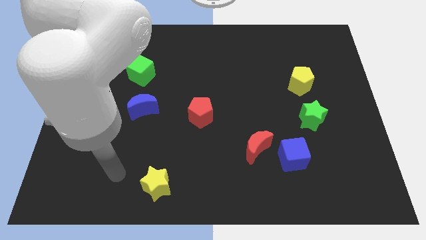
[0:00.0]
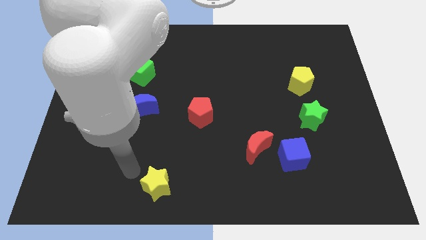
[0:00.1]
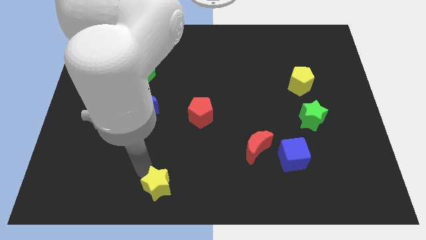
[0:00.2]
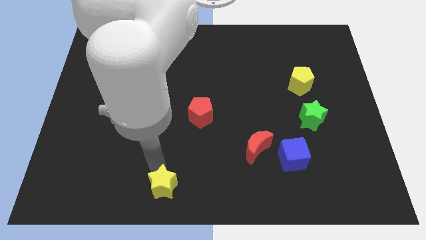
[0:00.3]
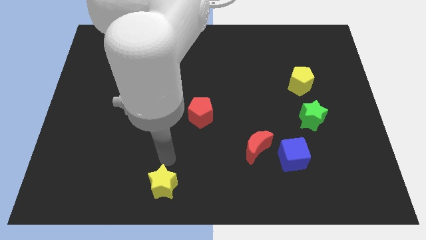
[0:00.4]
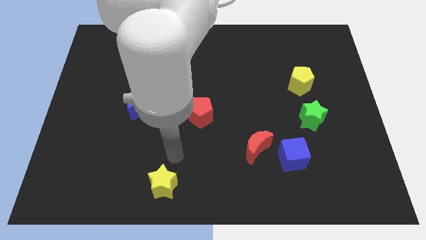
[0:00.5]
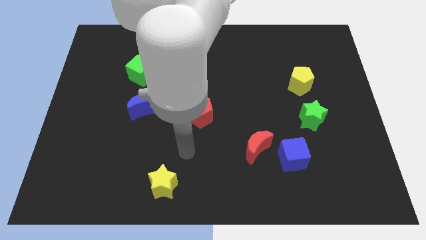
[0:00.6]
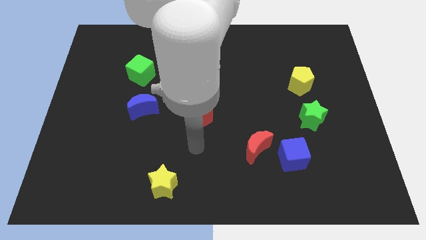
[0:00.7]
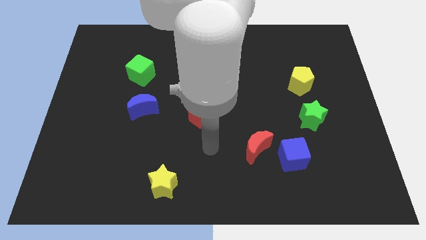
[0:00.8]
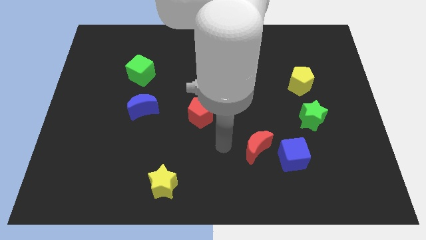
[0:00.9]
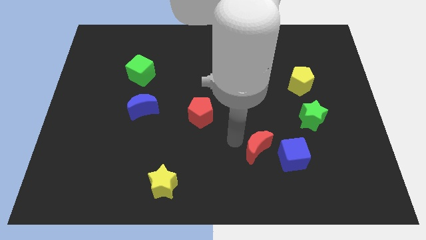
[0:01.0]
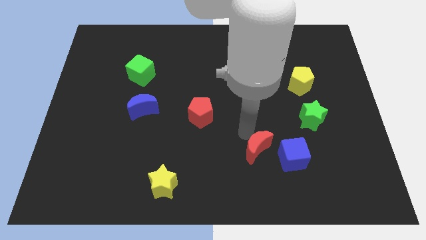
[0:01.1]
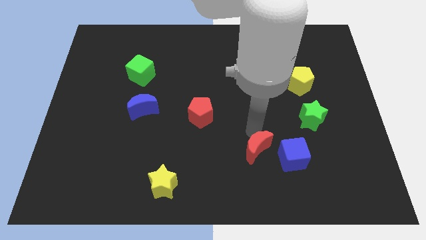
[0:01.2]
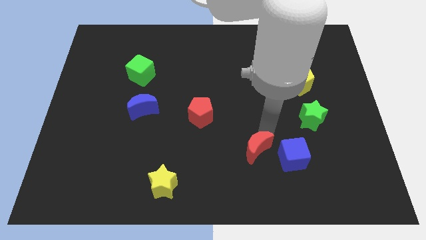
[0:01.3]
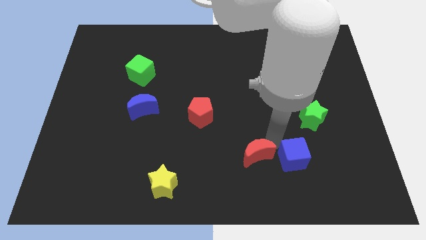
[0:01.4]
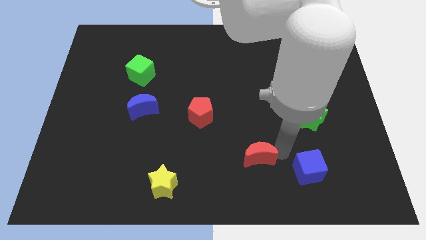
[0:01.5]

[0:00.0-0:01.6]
pull the red moon apart from the blue cube

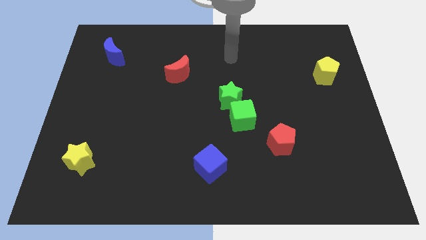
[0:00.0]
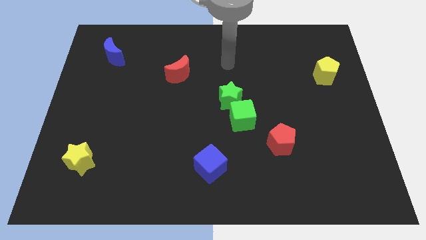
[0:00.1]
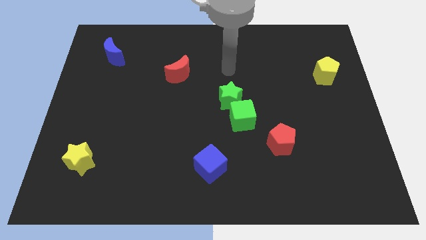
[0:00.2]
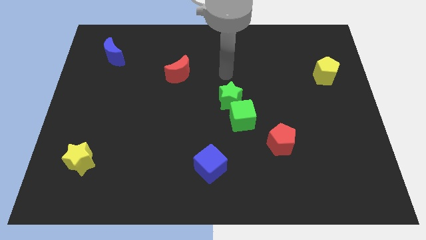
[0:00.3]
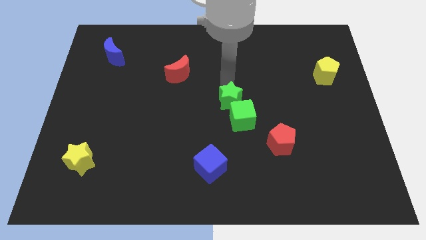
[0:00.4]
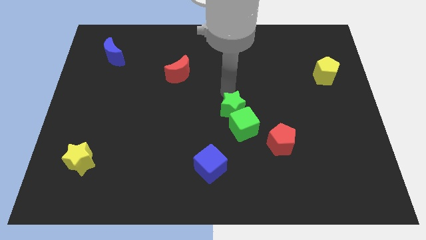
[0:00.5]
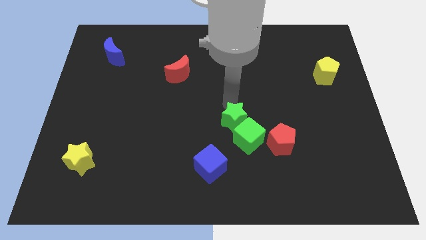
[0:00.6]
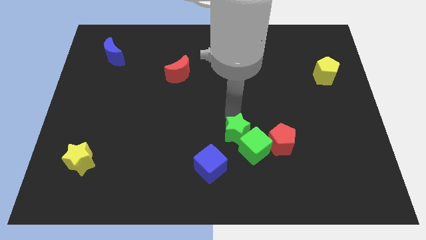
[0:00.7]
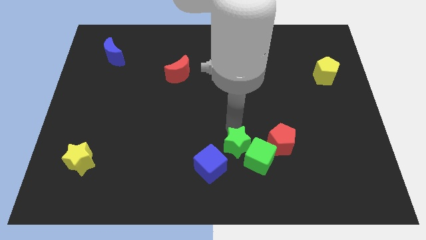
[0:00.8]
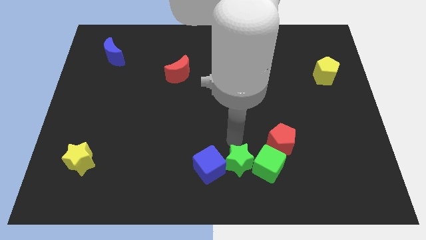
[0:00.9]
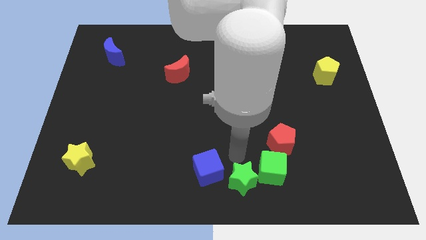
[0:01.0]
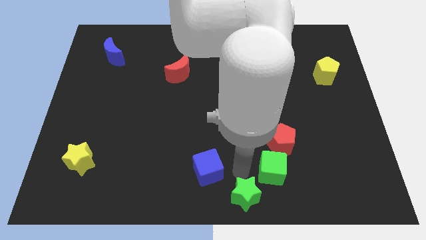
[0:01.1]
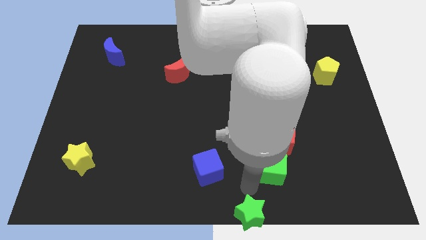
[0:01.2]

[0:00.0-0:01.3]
pull the green cube apart from the green star

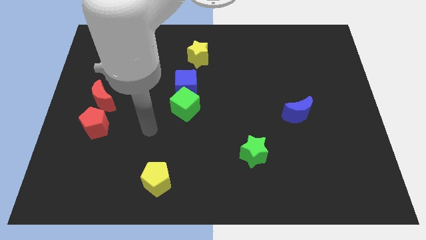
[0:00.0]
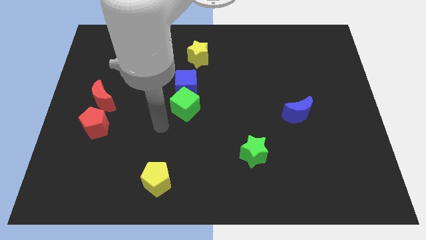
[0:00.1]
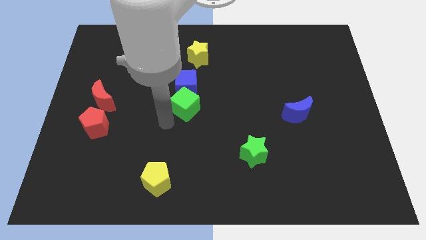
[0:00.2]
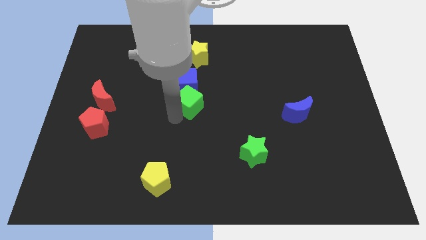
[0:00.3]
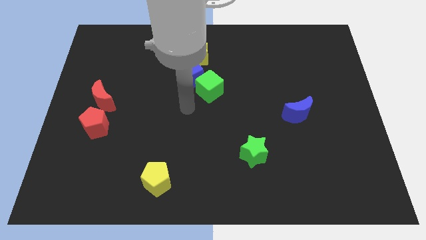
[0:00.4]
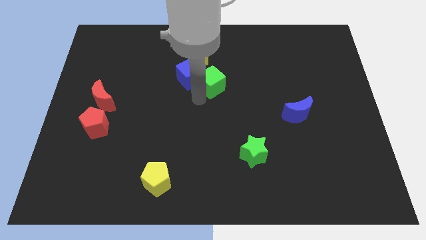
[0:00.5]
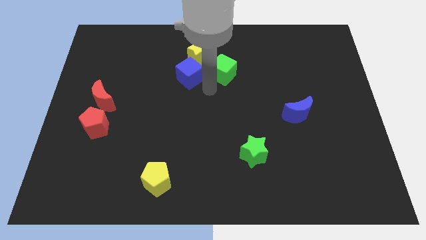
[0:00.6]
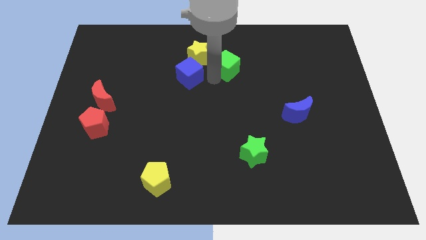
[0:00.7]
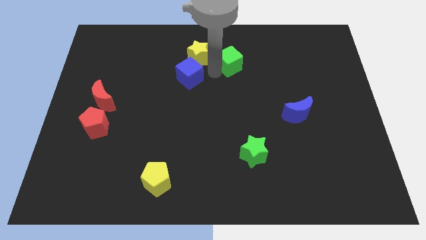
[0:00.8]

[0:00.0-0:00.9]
pull the blue cube apart from the green cube

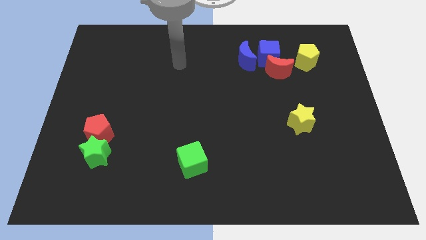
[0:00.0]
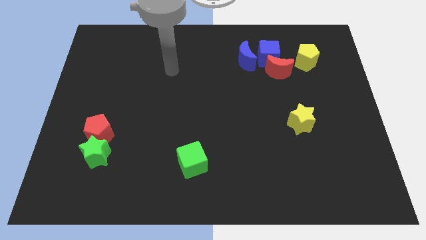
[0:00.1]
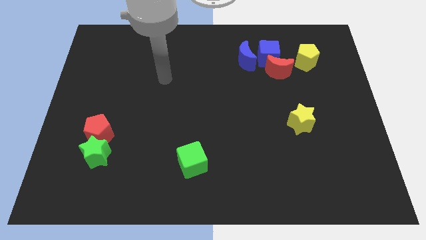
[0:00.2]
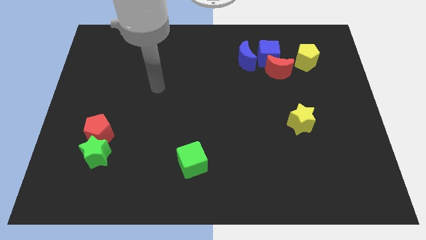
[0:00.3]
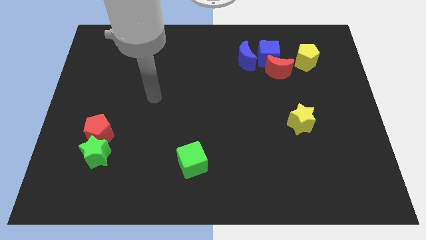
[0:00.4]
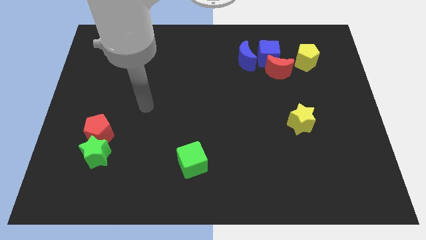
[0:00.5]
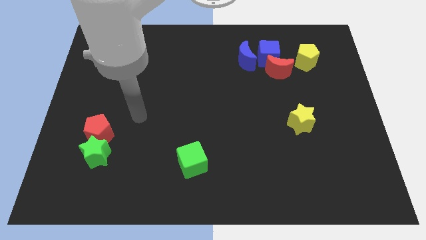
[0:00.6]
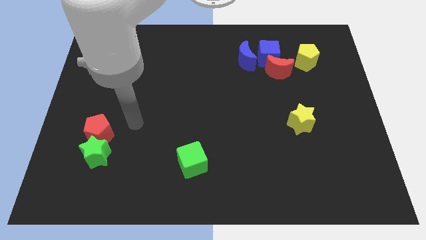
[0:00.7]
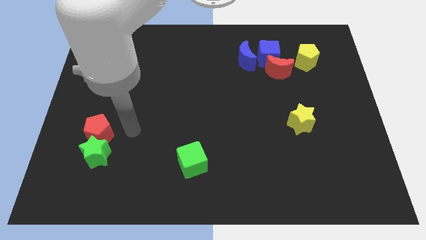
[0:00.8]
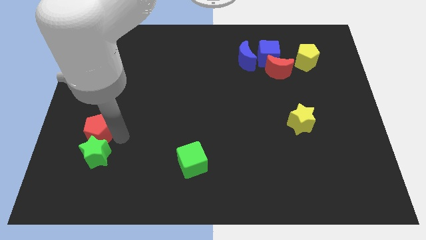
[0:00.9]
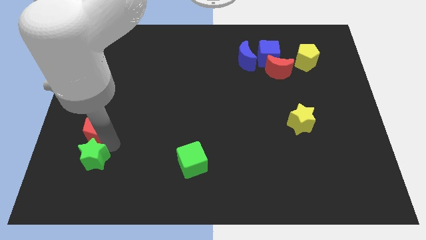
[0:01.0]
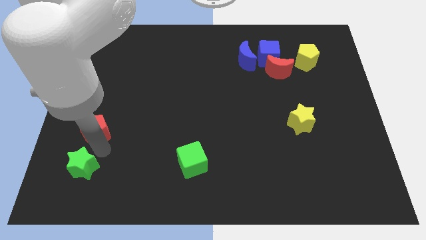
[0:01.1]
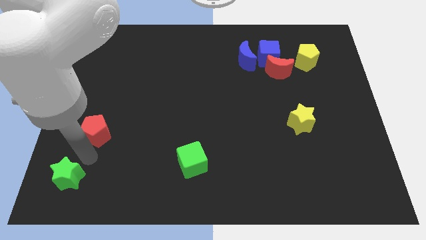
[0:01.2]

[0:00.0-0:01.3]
pull the red pentagon apart from the green star

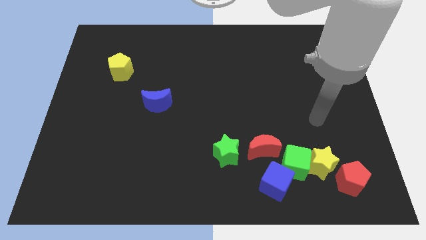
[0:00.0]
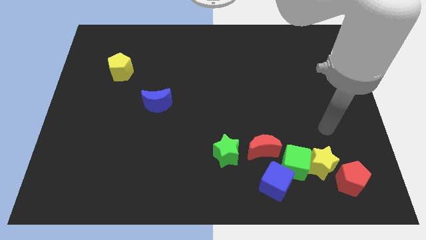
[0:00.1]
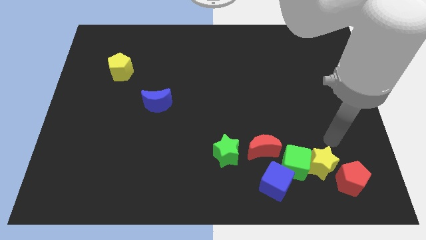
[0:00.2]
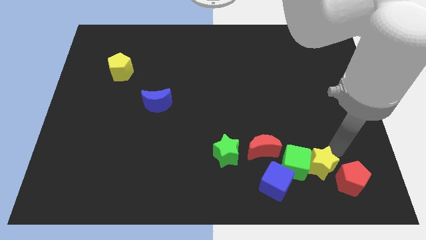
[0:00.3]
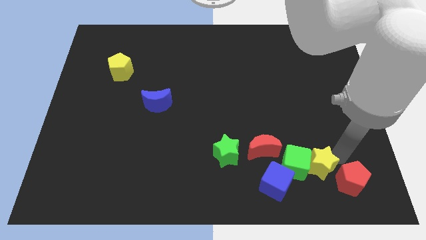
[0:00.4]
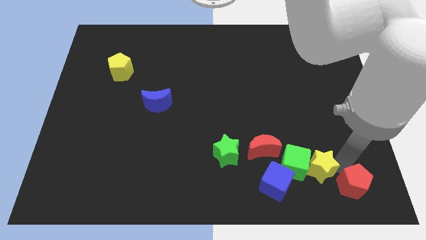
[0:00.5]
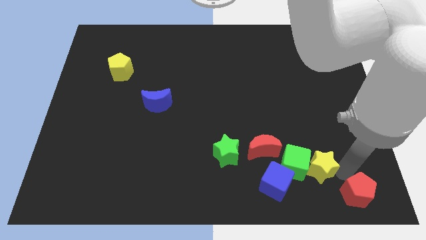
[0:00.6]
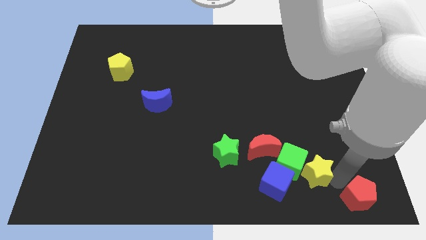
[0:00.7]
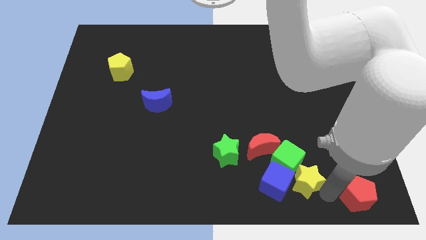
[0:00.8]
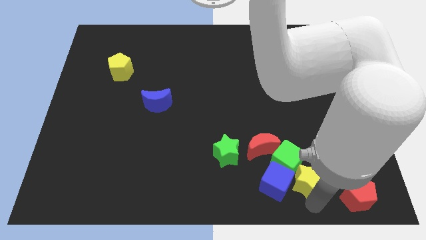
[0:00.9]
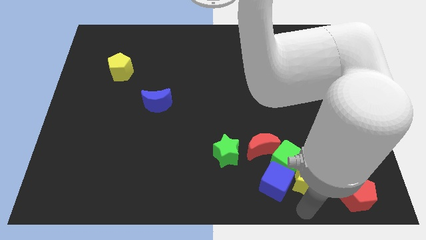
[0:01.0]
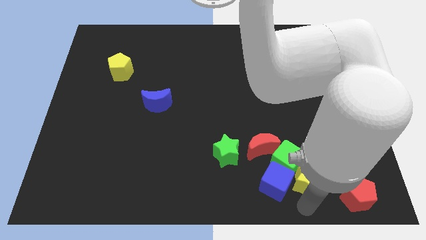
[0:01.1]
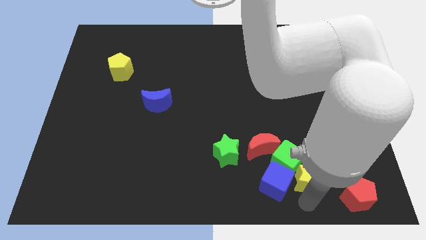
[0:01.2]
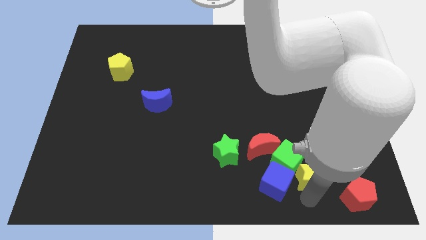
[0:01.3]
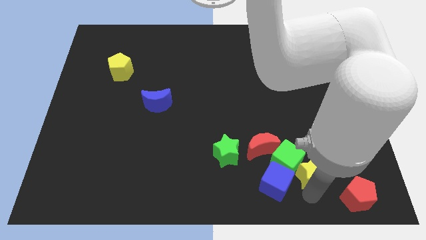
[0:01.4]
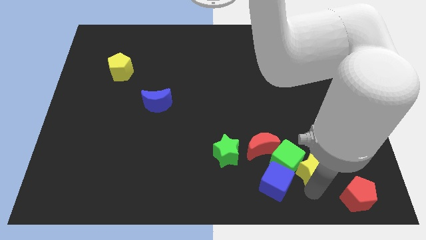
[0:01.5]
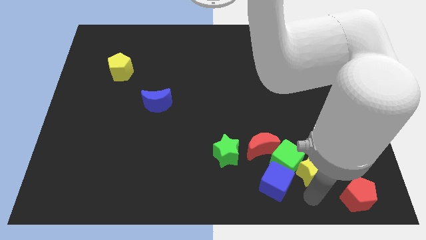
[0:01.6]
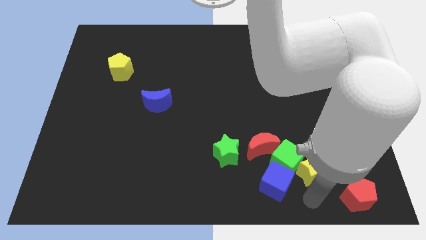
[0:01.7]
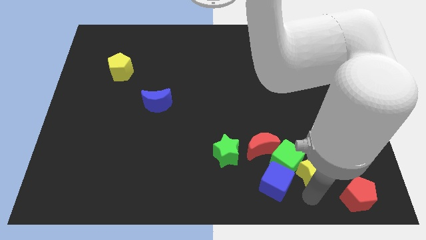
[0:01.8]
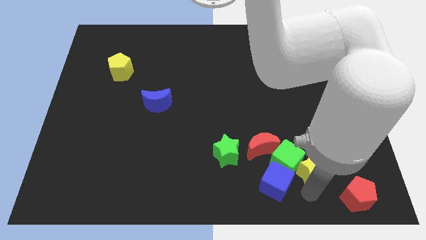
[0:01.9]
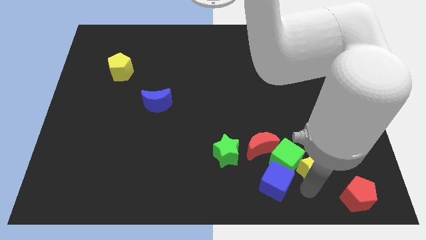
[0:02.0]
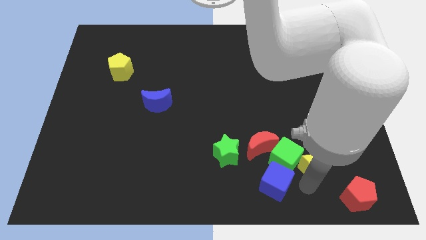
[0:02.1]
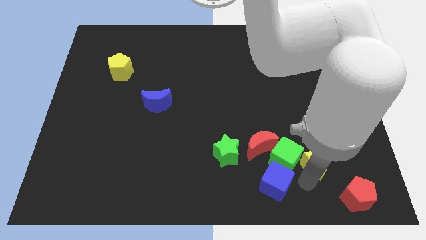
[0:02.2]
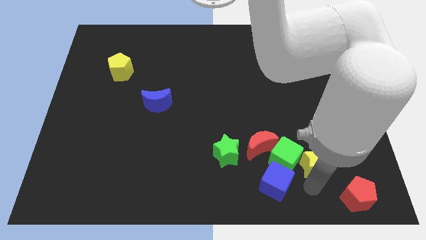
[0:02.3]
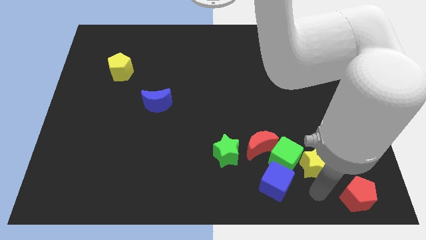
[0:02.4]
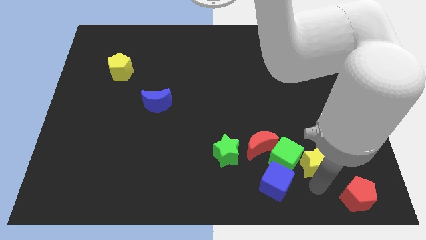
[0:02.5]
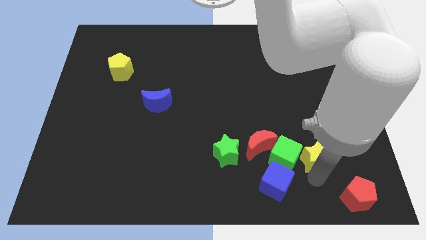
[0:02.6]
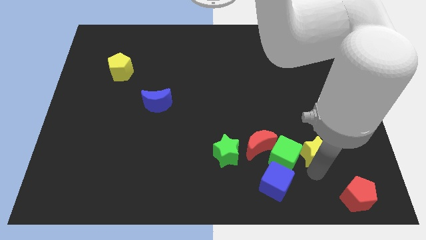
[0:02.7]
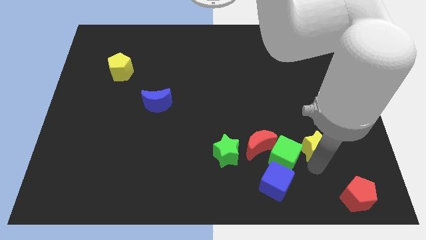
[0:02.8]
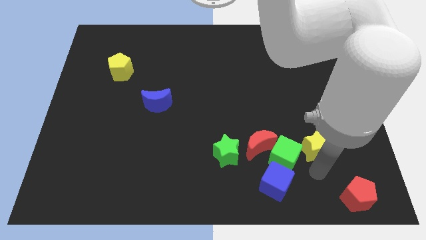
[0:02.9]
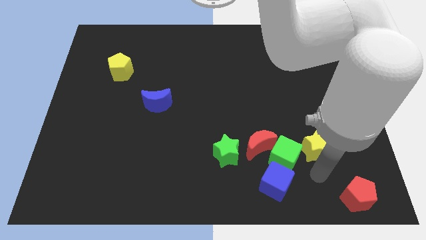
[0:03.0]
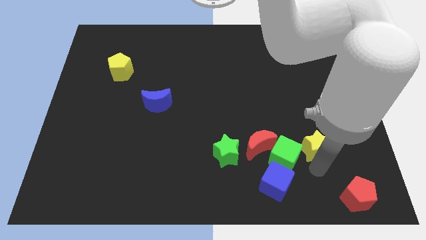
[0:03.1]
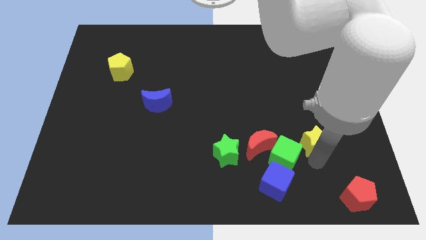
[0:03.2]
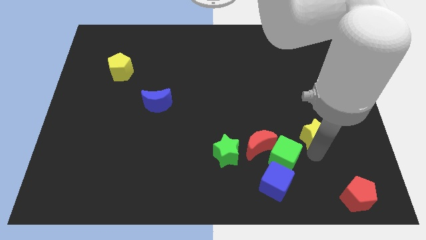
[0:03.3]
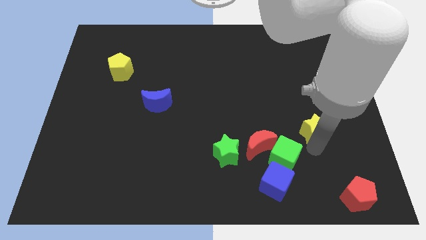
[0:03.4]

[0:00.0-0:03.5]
separate the yellow star from the green cube and red pentagon

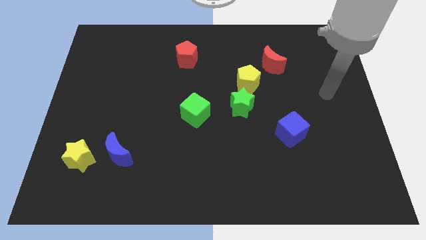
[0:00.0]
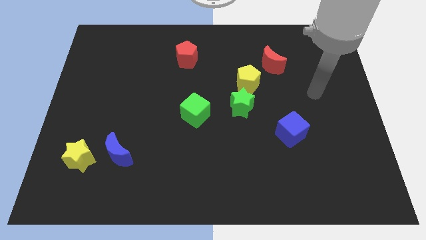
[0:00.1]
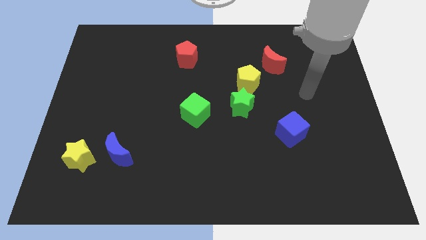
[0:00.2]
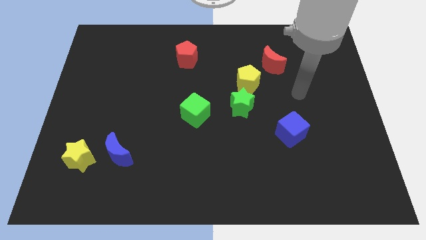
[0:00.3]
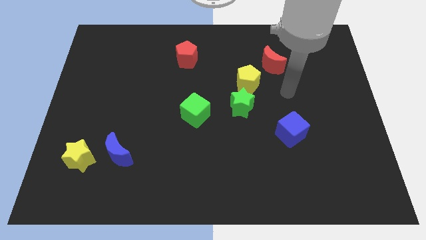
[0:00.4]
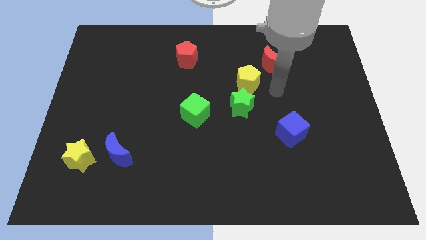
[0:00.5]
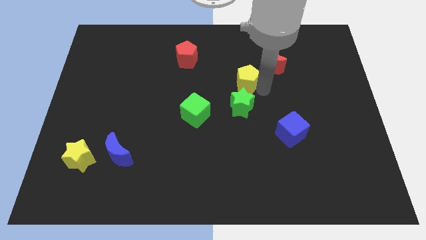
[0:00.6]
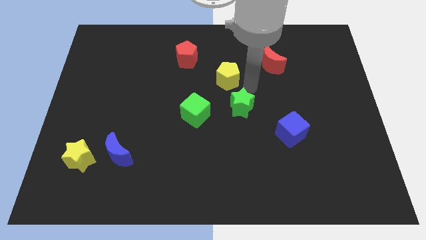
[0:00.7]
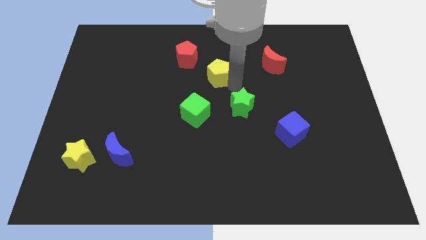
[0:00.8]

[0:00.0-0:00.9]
pull the green star apart from the yellow pentagon
